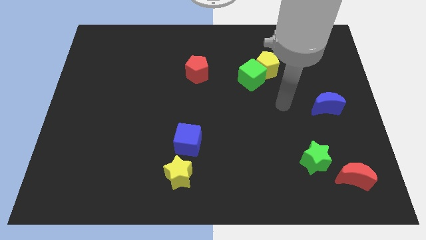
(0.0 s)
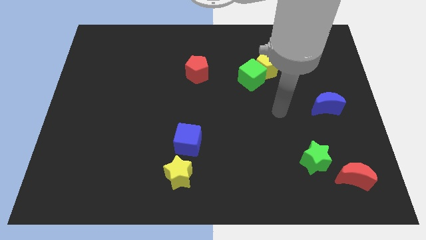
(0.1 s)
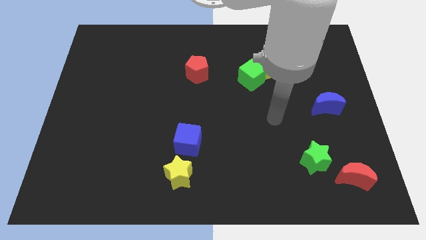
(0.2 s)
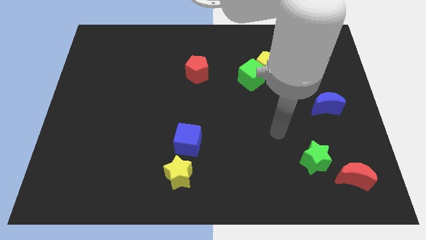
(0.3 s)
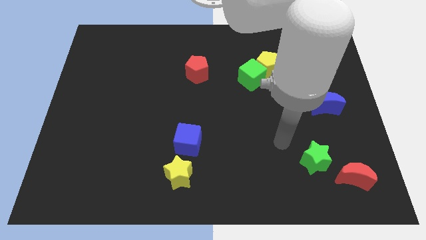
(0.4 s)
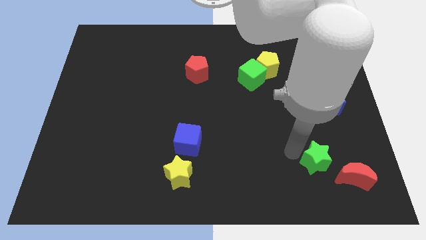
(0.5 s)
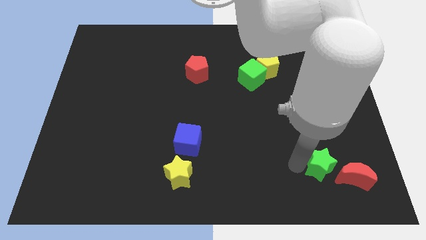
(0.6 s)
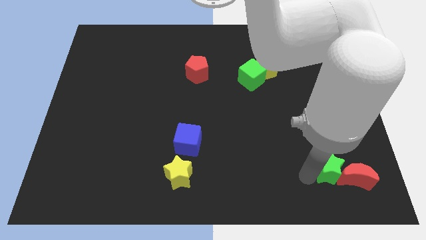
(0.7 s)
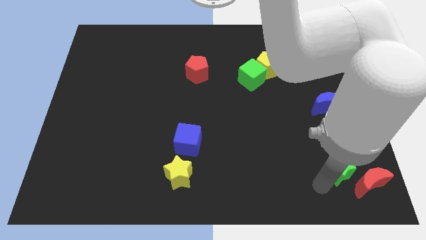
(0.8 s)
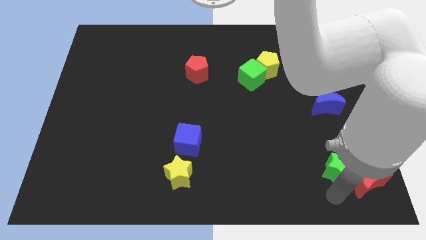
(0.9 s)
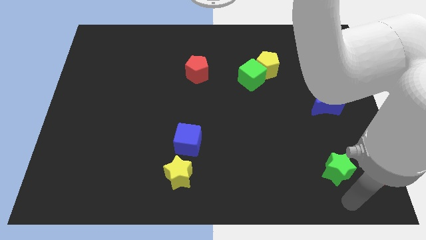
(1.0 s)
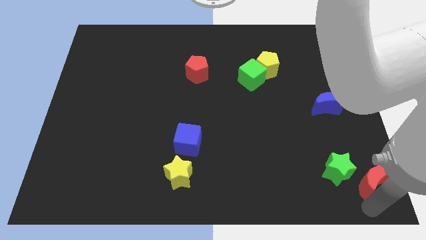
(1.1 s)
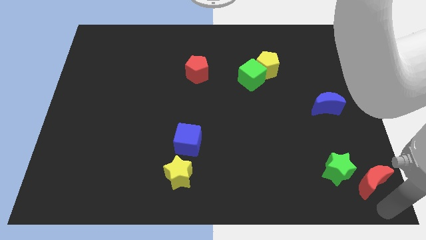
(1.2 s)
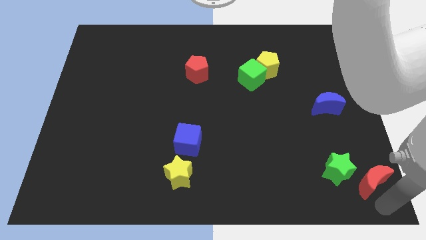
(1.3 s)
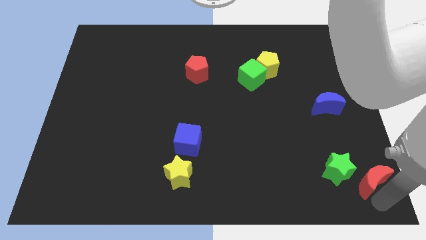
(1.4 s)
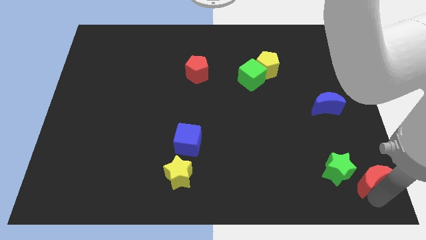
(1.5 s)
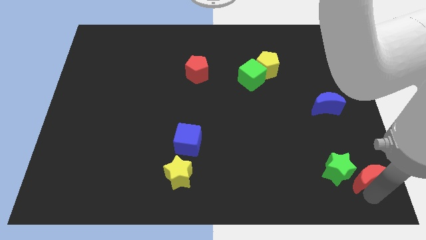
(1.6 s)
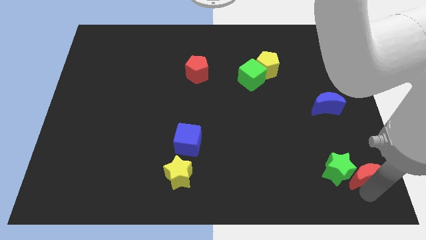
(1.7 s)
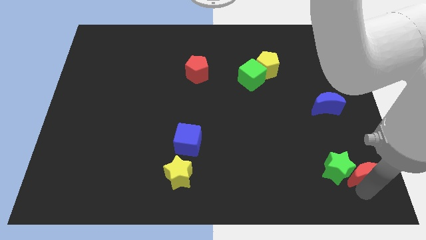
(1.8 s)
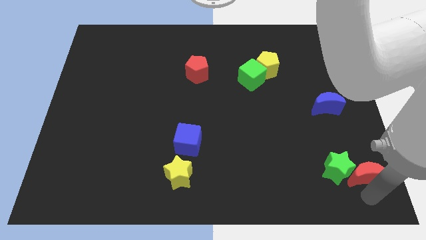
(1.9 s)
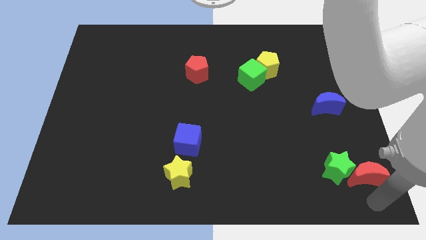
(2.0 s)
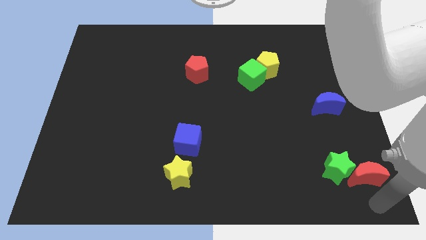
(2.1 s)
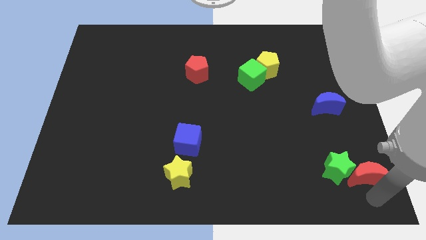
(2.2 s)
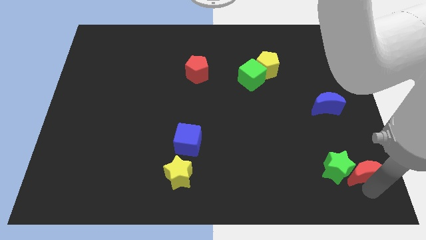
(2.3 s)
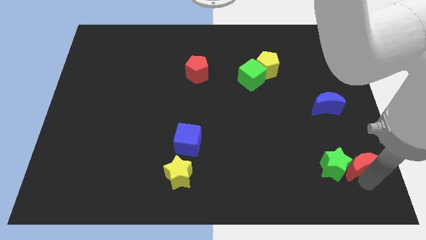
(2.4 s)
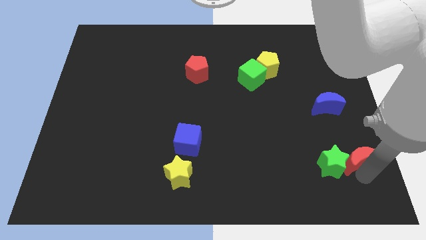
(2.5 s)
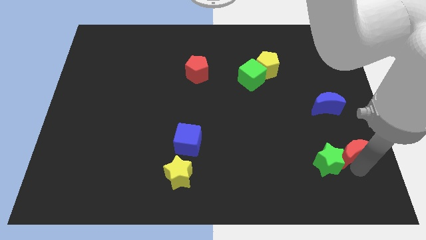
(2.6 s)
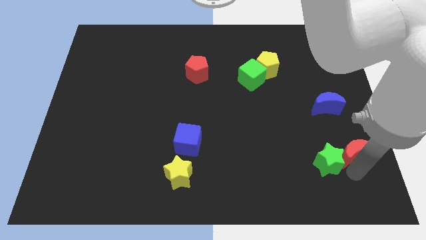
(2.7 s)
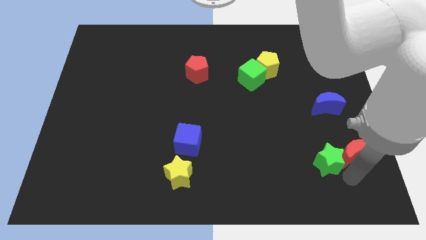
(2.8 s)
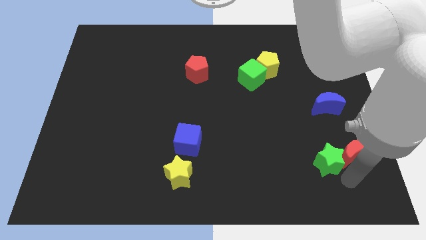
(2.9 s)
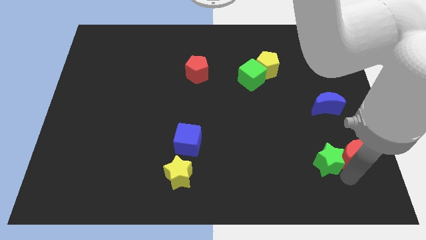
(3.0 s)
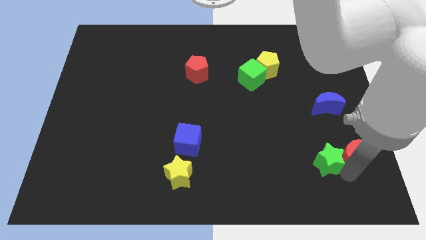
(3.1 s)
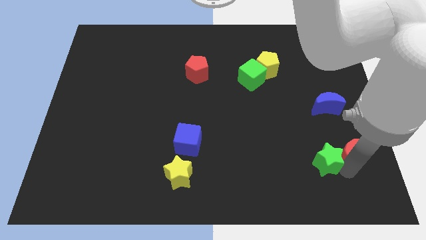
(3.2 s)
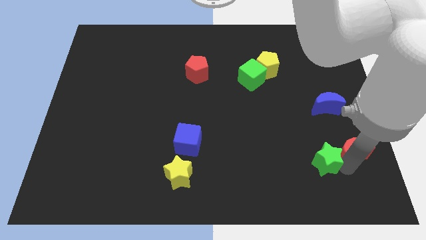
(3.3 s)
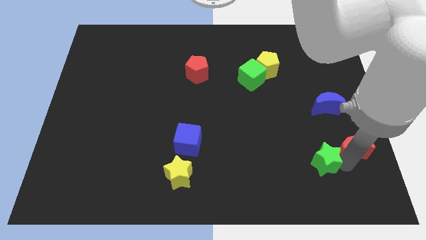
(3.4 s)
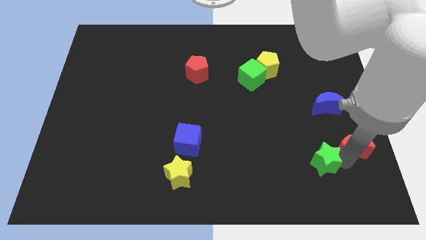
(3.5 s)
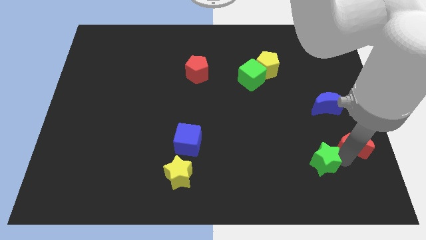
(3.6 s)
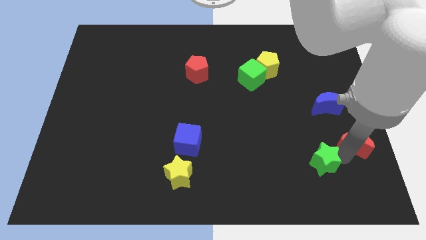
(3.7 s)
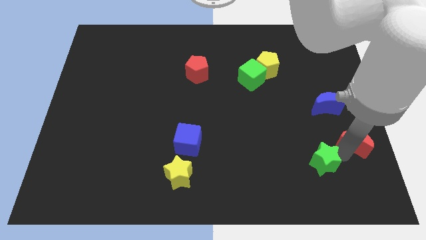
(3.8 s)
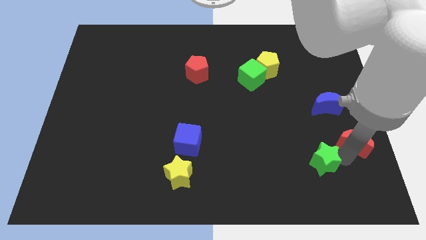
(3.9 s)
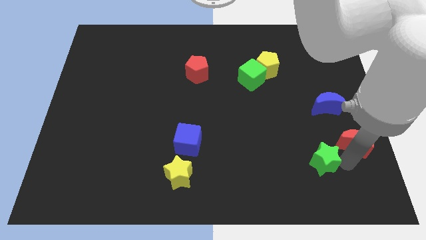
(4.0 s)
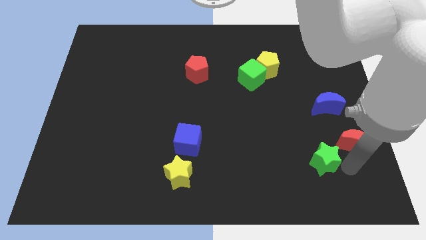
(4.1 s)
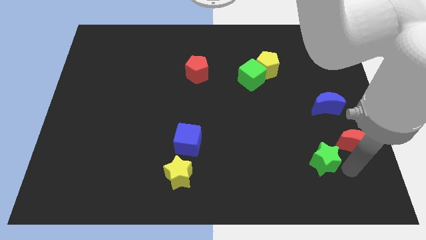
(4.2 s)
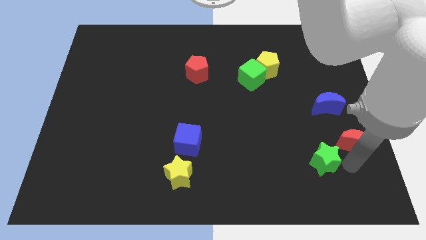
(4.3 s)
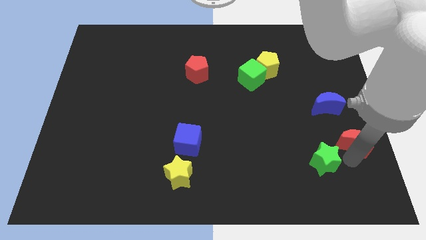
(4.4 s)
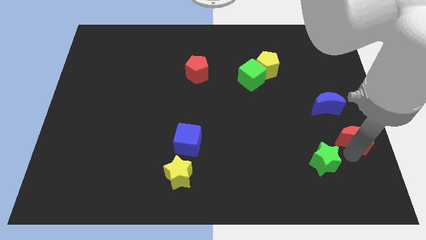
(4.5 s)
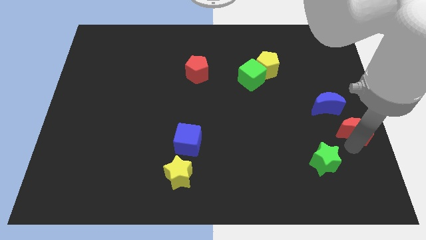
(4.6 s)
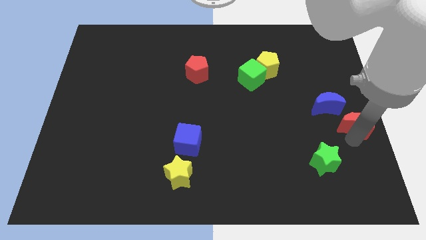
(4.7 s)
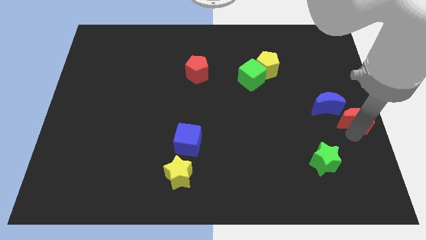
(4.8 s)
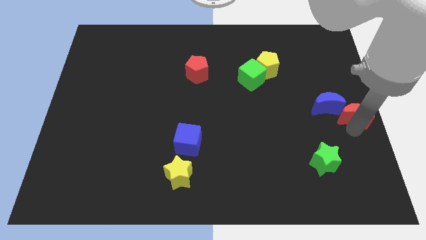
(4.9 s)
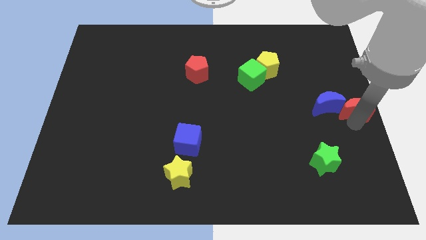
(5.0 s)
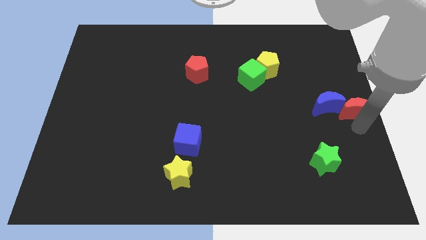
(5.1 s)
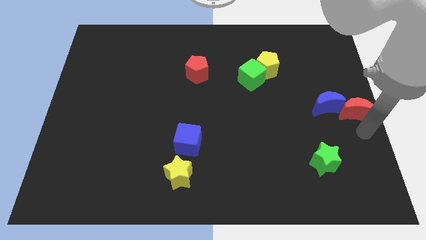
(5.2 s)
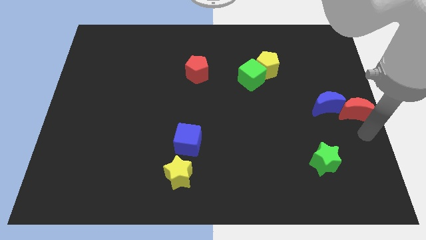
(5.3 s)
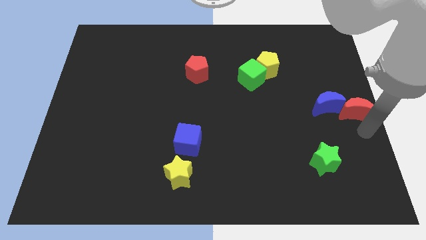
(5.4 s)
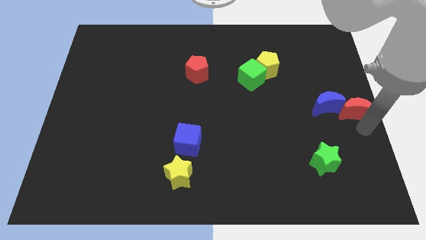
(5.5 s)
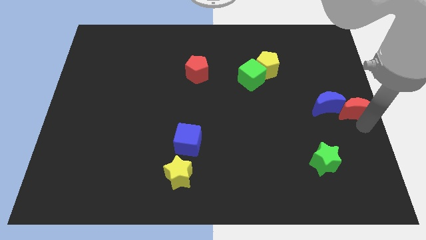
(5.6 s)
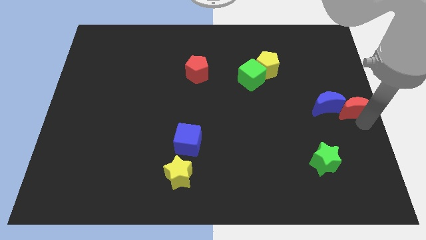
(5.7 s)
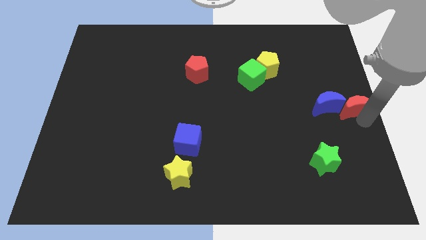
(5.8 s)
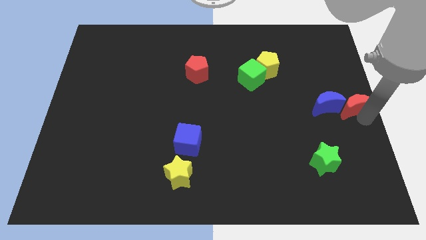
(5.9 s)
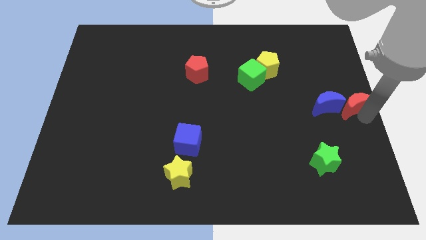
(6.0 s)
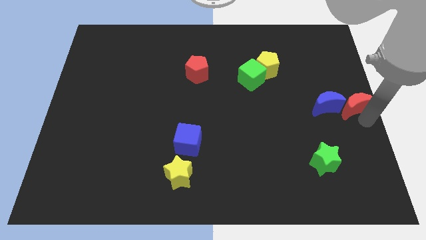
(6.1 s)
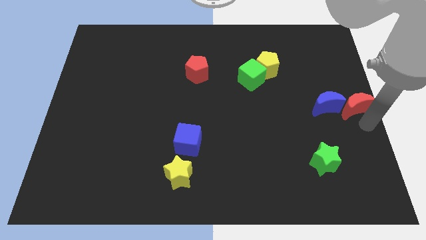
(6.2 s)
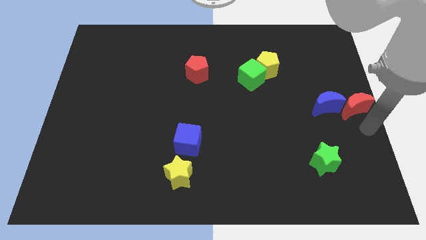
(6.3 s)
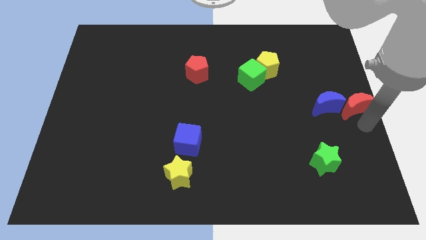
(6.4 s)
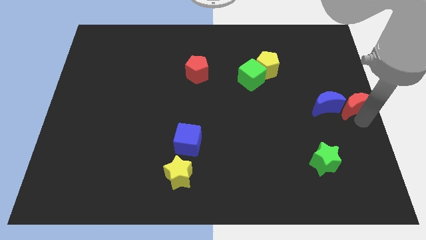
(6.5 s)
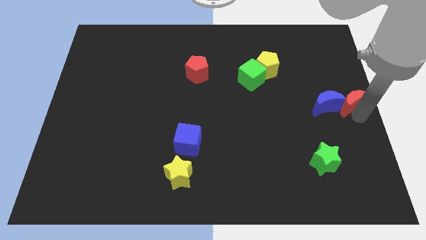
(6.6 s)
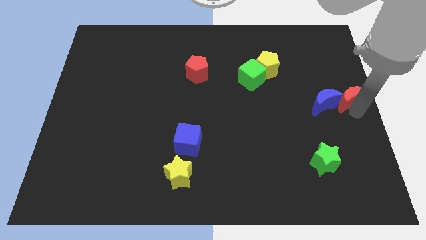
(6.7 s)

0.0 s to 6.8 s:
push the red moon upwards

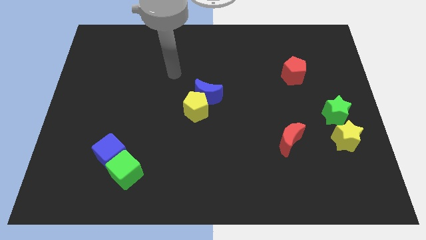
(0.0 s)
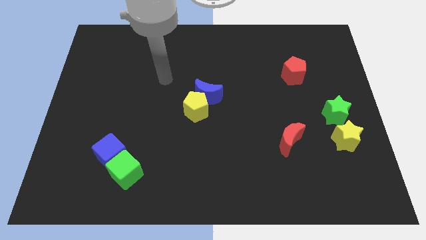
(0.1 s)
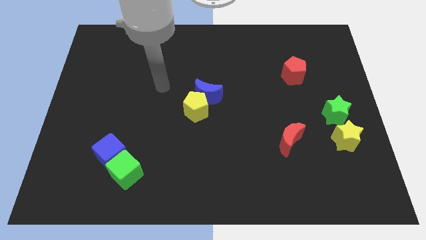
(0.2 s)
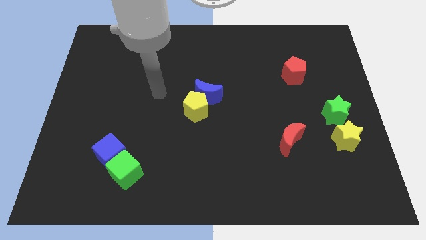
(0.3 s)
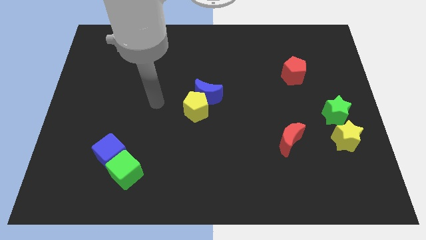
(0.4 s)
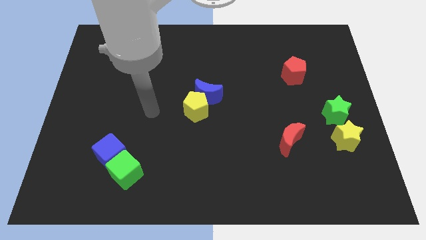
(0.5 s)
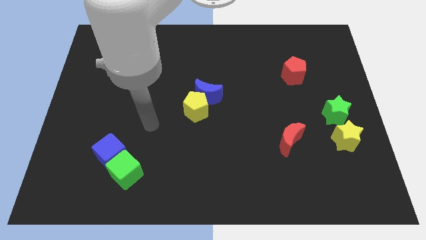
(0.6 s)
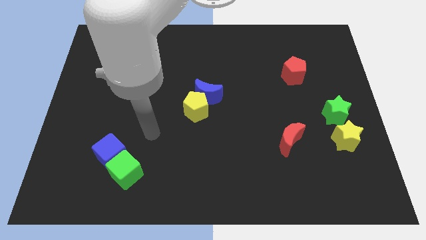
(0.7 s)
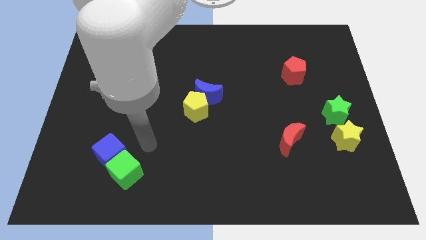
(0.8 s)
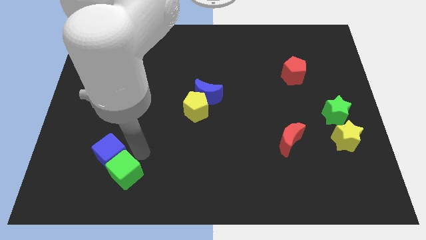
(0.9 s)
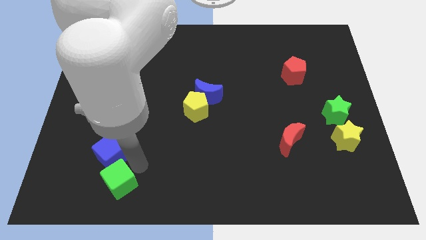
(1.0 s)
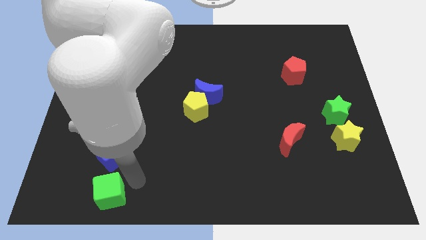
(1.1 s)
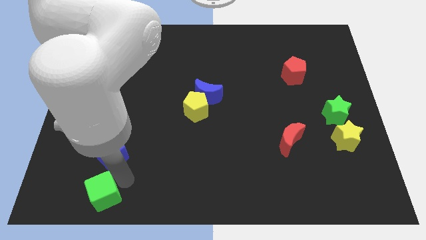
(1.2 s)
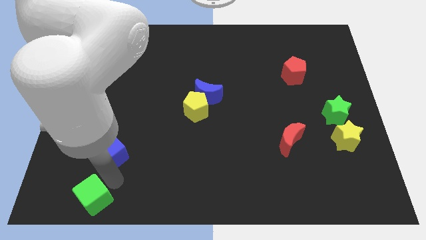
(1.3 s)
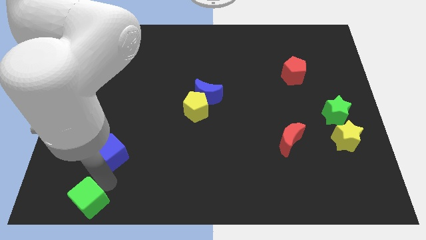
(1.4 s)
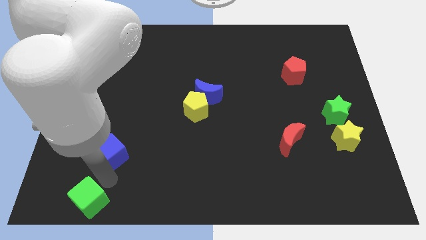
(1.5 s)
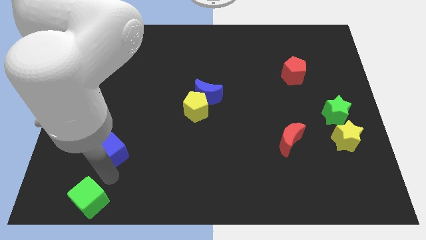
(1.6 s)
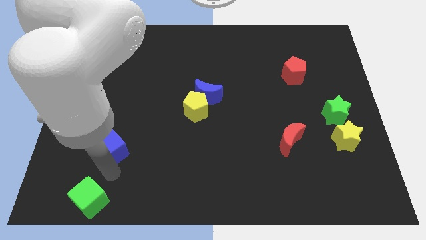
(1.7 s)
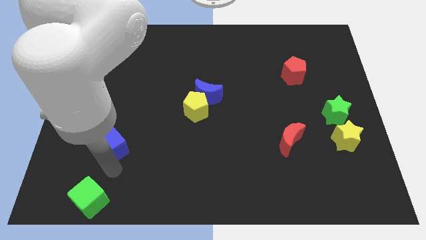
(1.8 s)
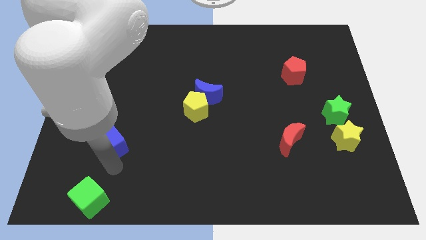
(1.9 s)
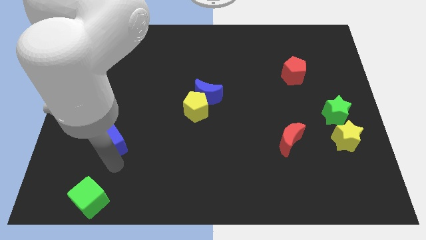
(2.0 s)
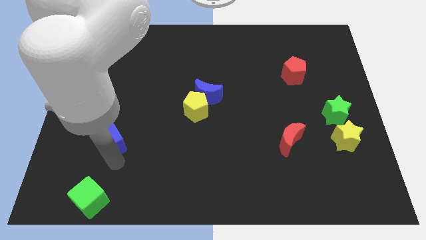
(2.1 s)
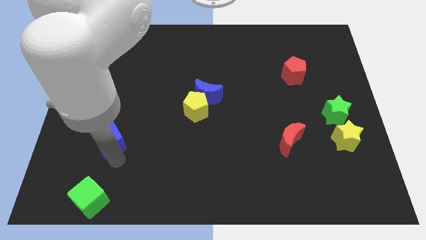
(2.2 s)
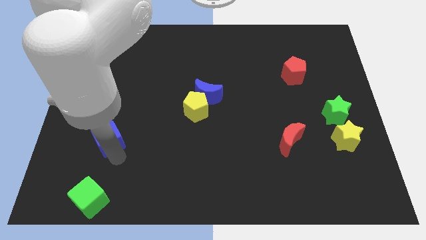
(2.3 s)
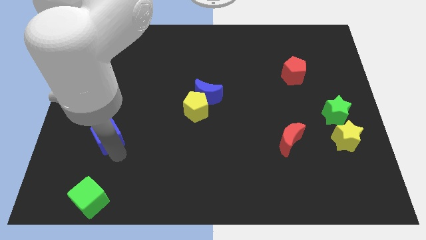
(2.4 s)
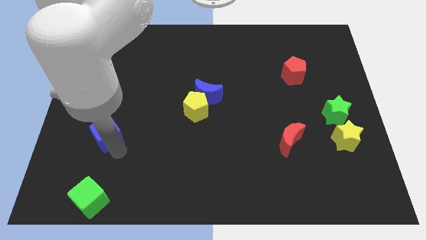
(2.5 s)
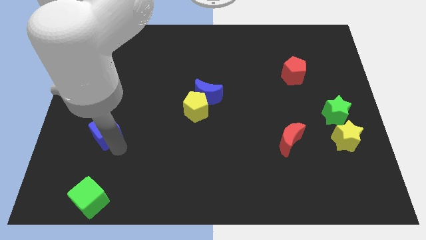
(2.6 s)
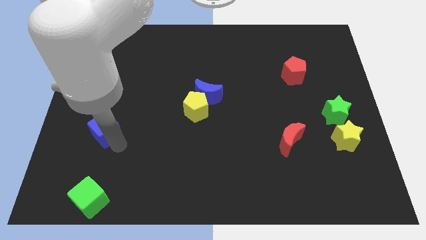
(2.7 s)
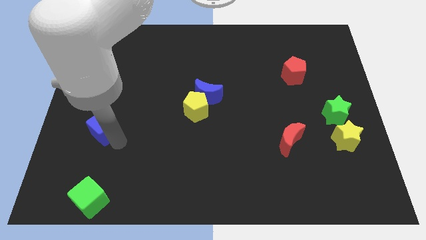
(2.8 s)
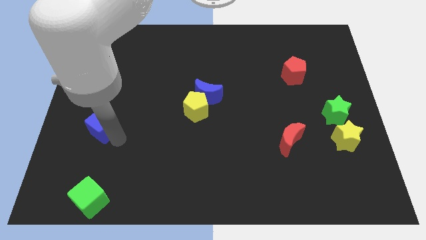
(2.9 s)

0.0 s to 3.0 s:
slide the blue cube slightly up
